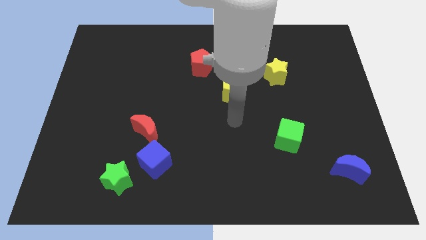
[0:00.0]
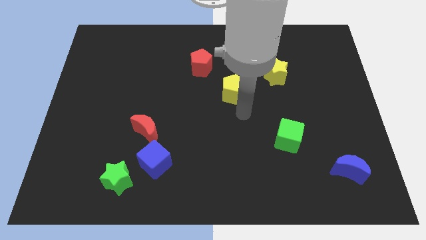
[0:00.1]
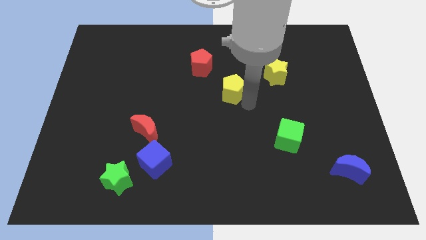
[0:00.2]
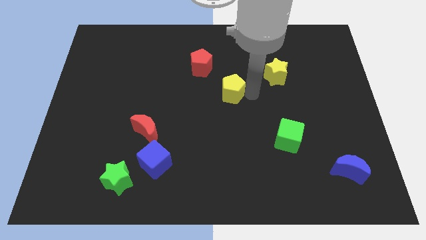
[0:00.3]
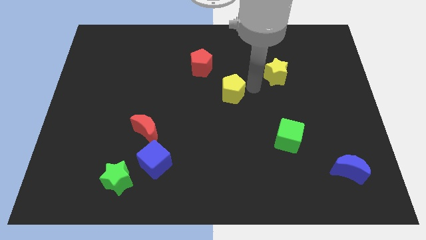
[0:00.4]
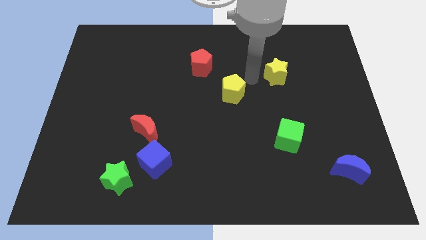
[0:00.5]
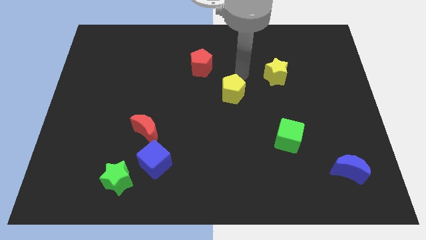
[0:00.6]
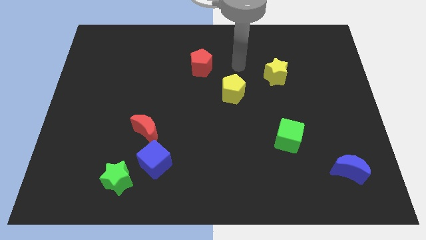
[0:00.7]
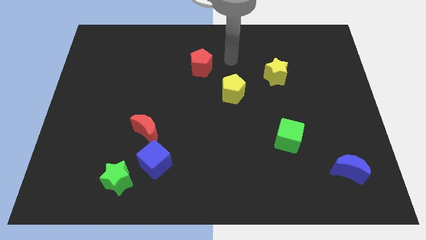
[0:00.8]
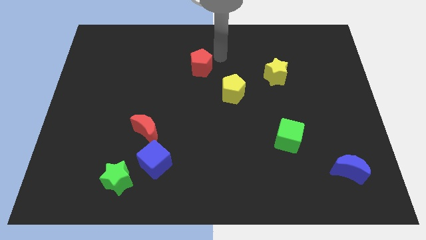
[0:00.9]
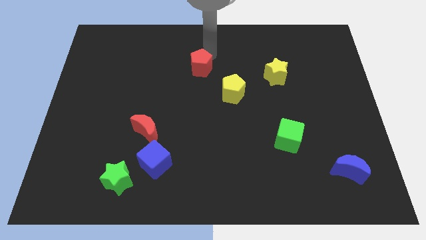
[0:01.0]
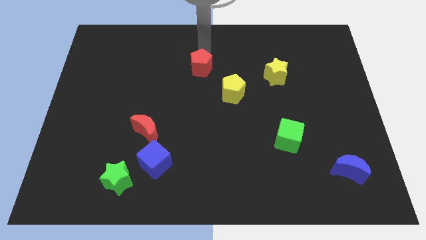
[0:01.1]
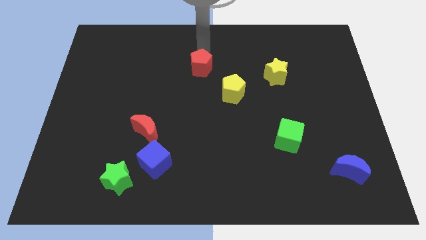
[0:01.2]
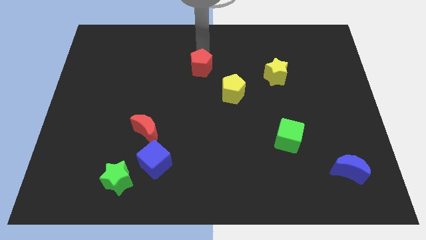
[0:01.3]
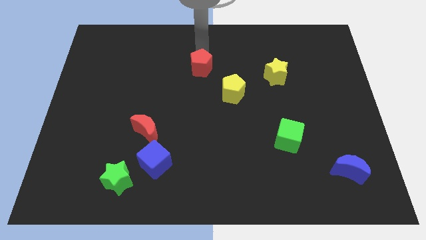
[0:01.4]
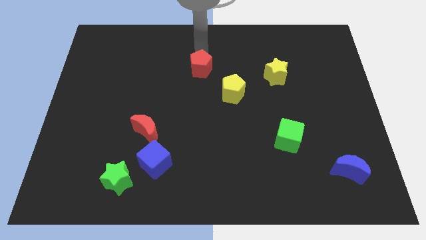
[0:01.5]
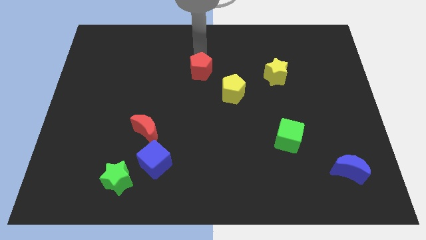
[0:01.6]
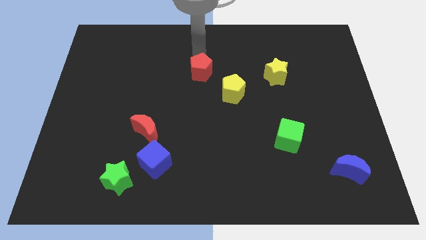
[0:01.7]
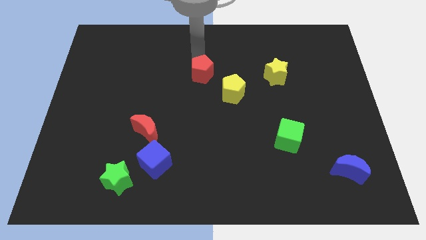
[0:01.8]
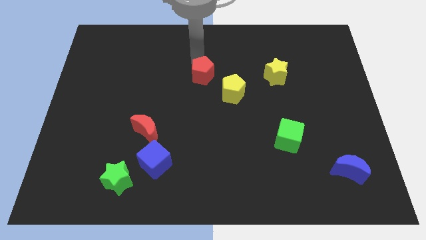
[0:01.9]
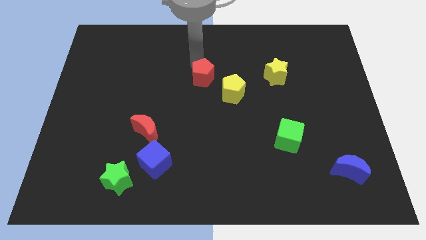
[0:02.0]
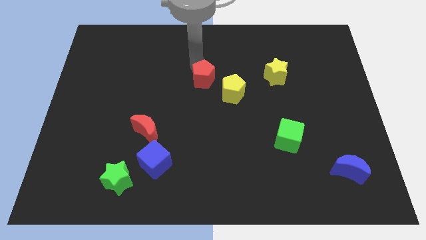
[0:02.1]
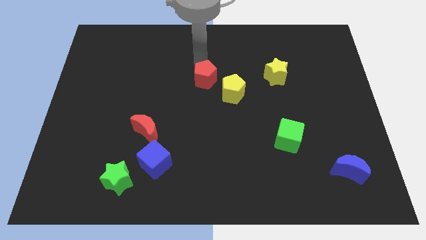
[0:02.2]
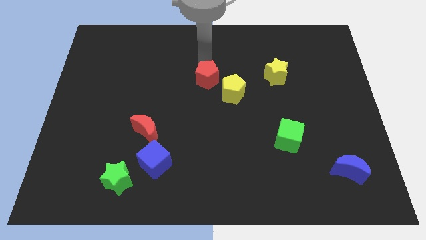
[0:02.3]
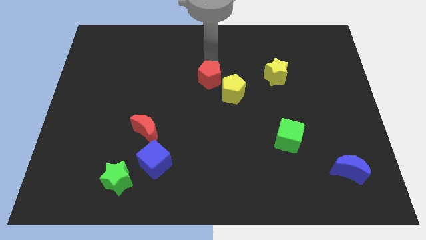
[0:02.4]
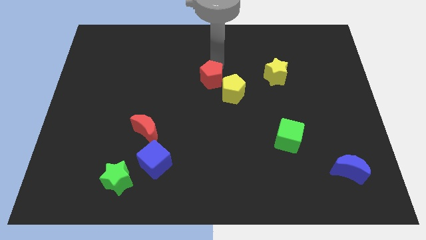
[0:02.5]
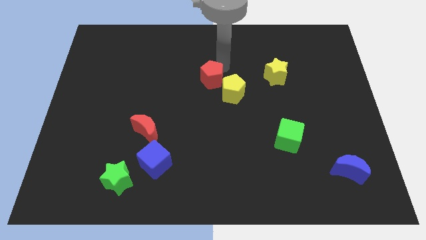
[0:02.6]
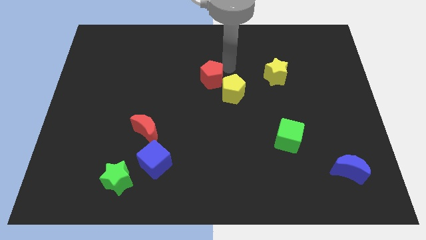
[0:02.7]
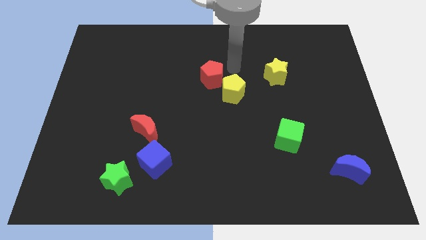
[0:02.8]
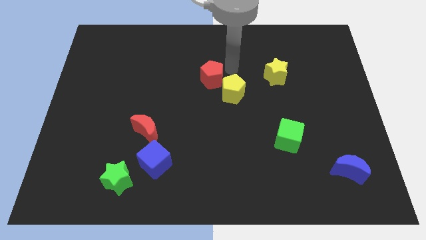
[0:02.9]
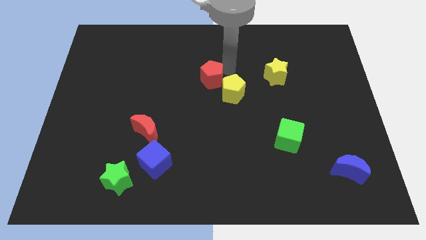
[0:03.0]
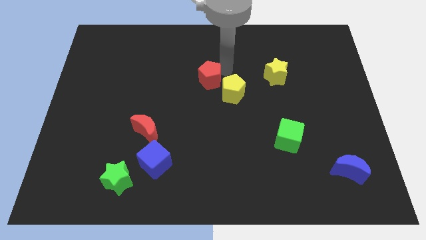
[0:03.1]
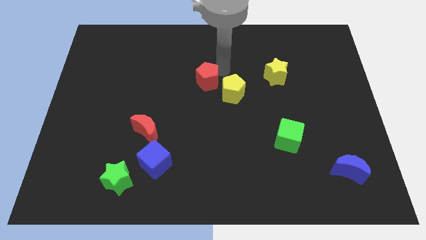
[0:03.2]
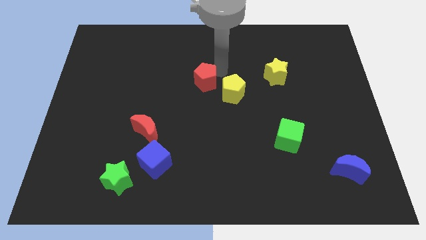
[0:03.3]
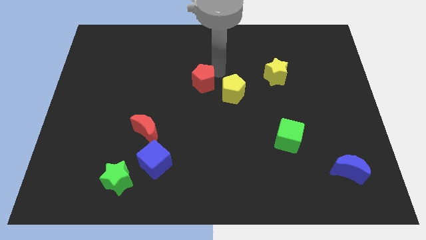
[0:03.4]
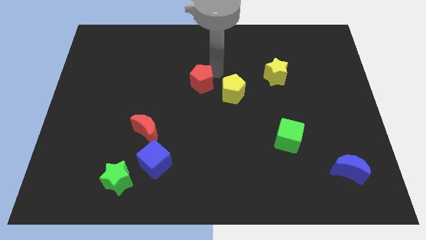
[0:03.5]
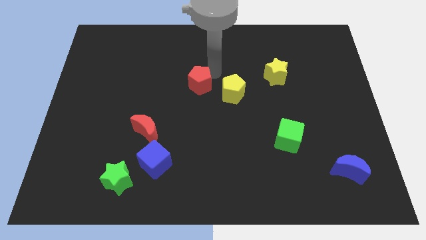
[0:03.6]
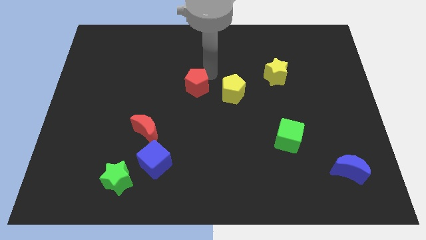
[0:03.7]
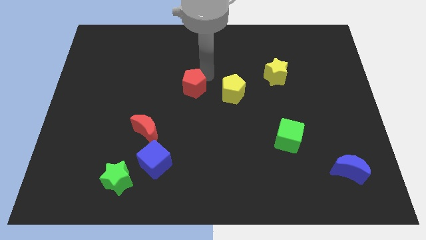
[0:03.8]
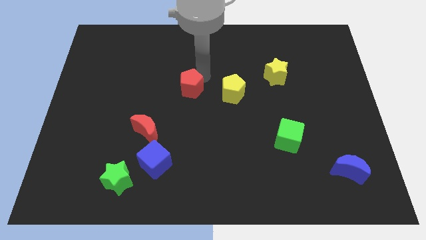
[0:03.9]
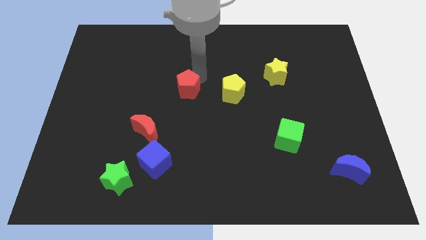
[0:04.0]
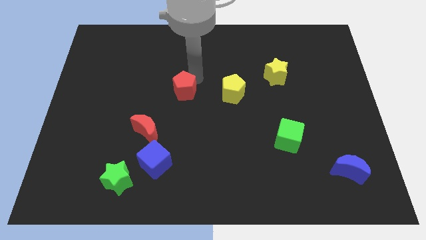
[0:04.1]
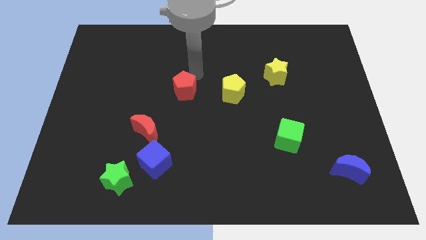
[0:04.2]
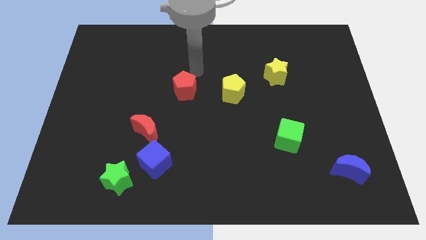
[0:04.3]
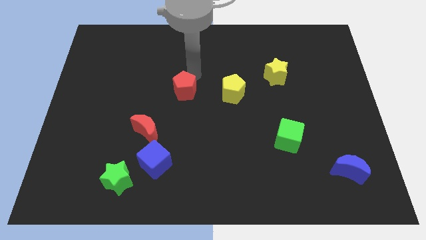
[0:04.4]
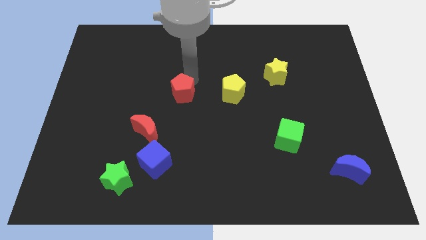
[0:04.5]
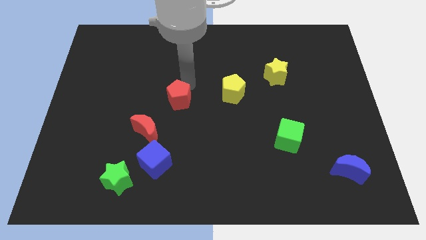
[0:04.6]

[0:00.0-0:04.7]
slide the red pentagon to the top right of the red moon

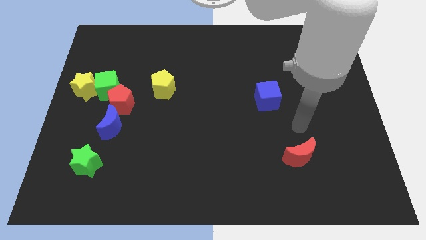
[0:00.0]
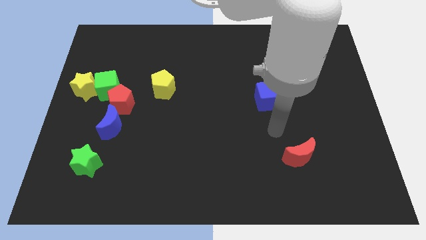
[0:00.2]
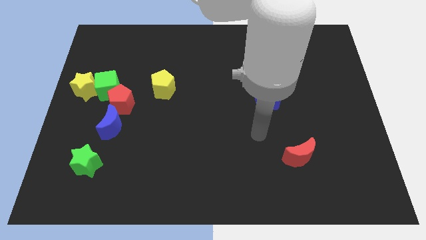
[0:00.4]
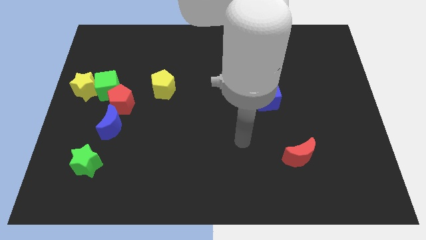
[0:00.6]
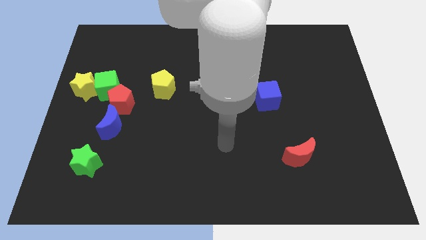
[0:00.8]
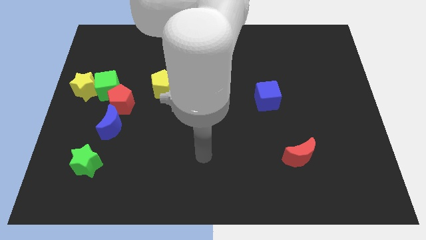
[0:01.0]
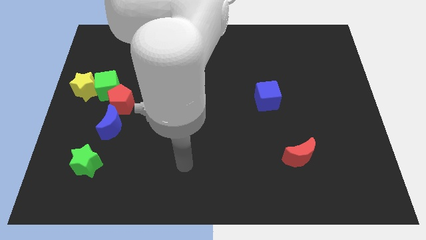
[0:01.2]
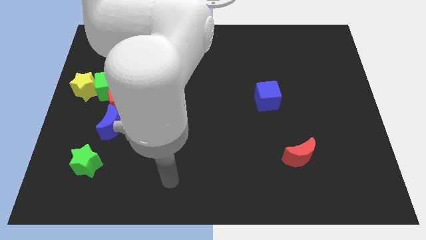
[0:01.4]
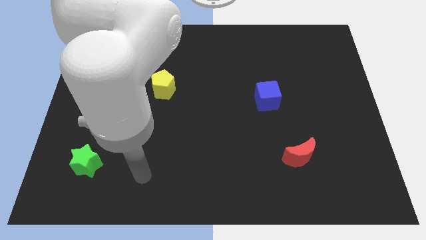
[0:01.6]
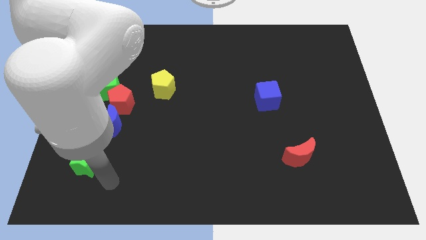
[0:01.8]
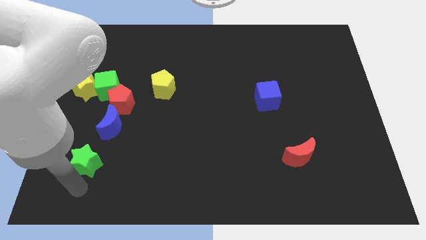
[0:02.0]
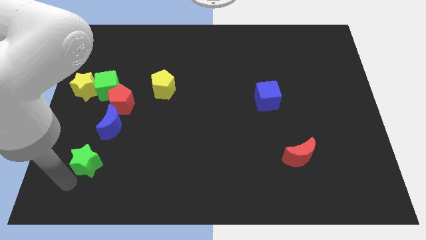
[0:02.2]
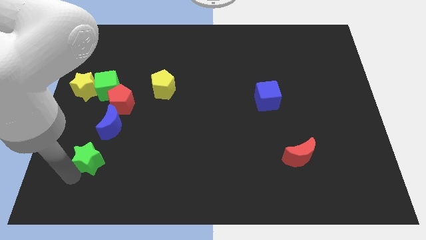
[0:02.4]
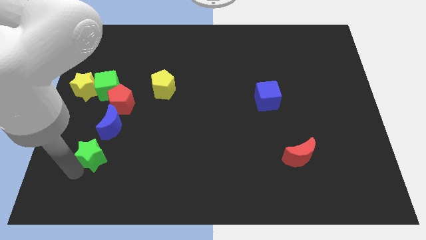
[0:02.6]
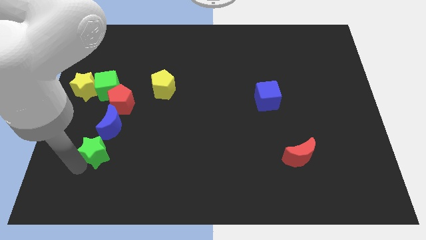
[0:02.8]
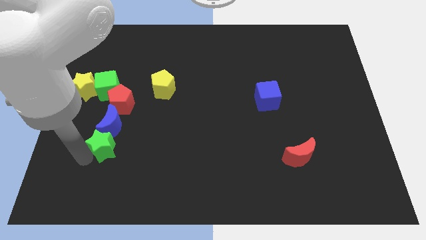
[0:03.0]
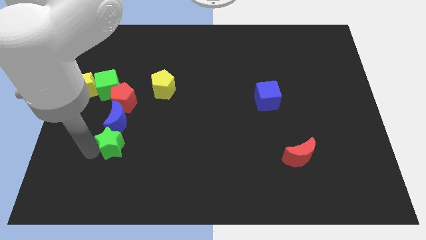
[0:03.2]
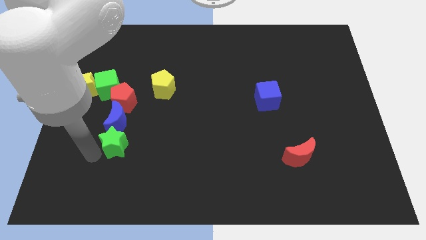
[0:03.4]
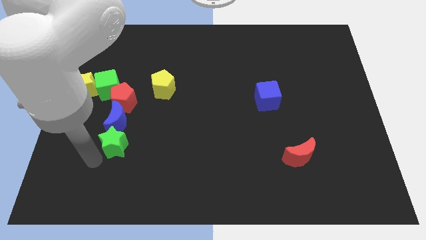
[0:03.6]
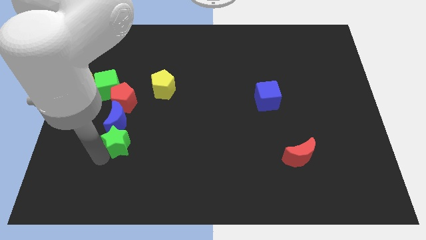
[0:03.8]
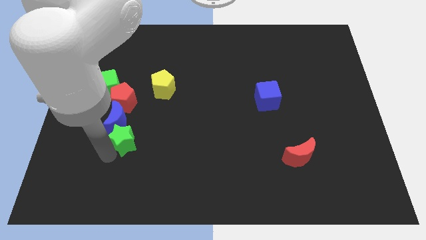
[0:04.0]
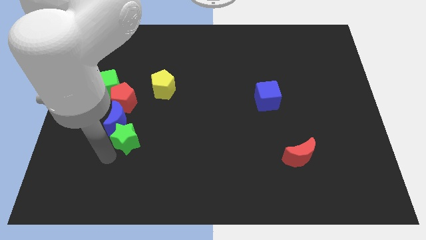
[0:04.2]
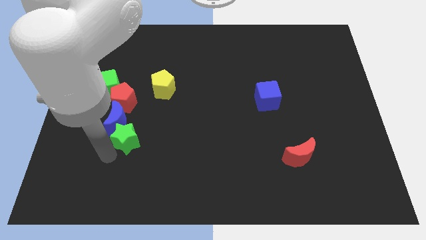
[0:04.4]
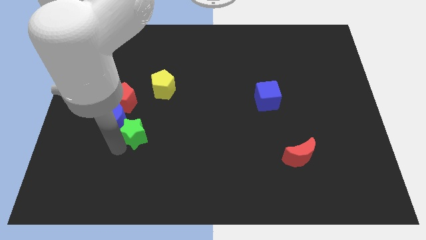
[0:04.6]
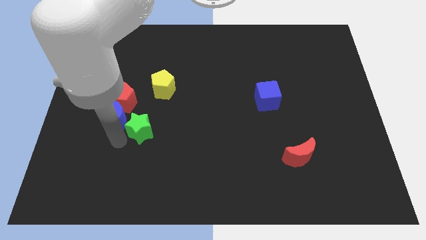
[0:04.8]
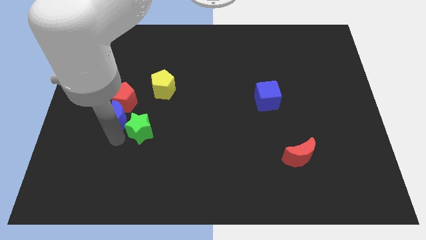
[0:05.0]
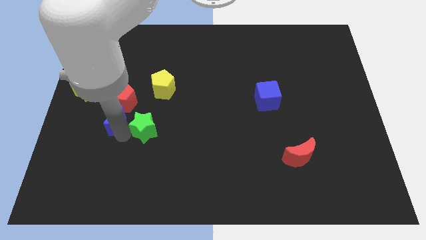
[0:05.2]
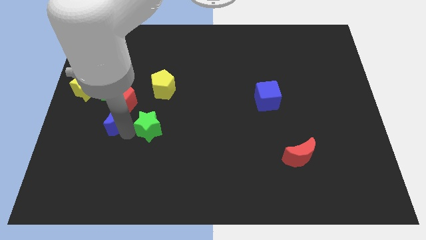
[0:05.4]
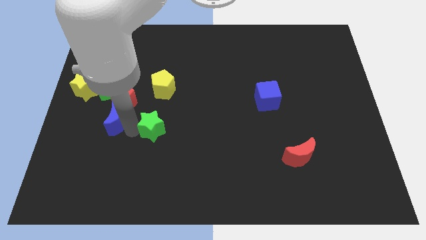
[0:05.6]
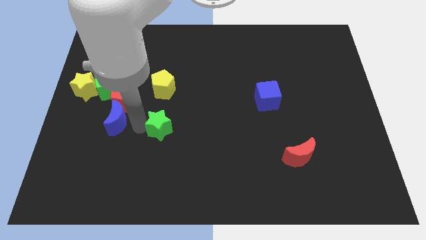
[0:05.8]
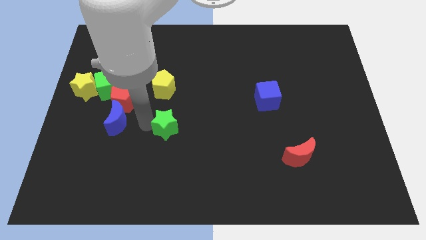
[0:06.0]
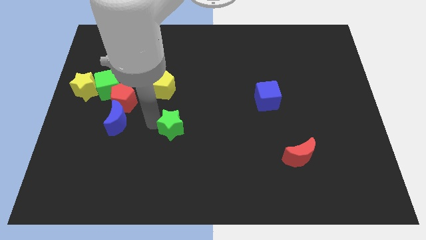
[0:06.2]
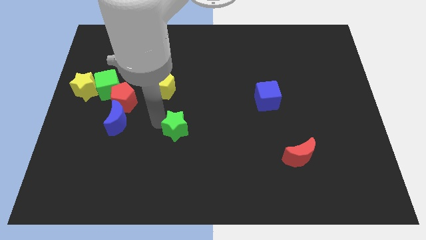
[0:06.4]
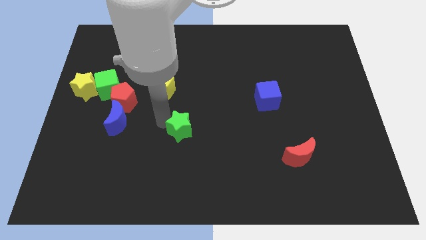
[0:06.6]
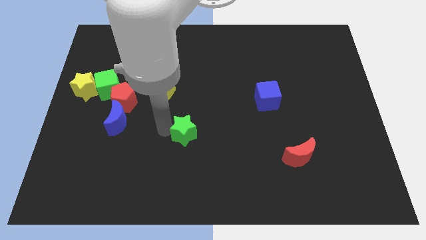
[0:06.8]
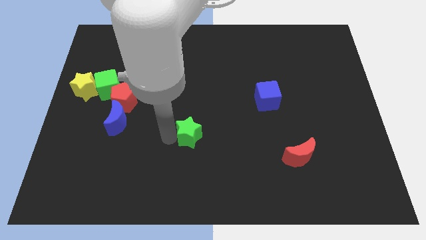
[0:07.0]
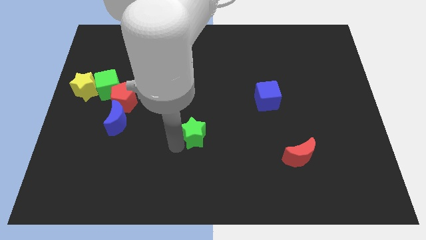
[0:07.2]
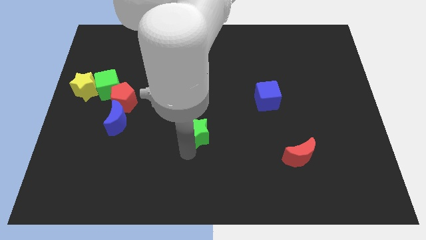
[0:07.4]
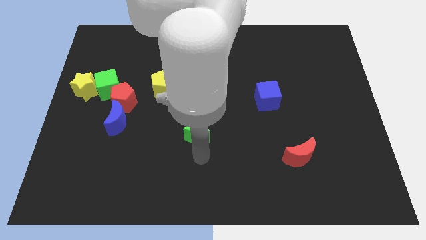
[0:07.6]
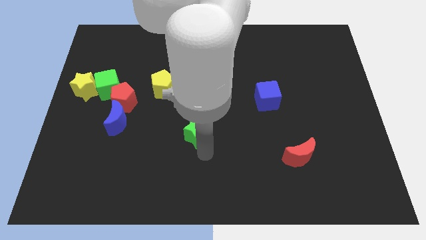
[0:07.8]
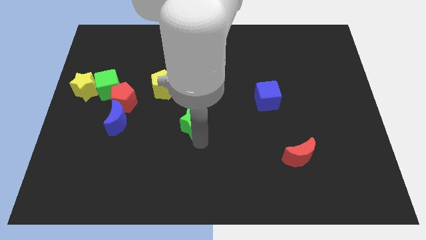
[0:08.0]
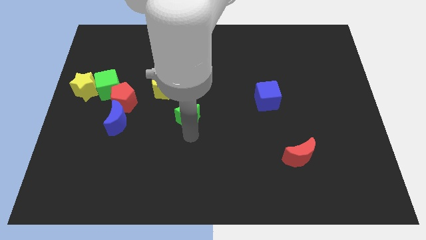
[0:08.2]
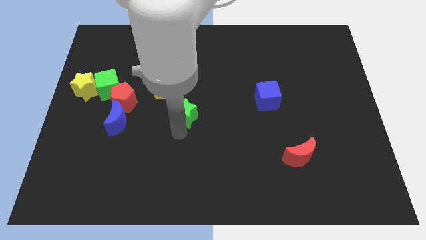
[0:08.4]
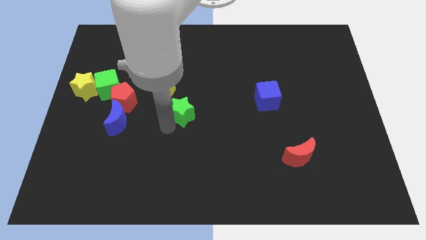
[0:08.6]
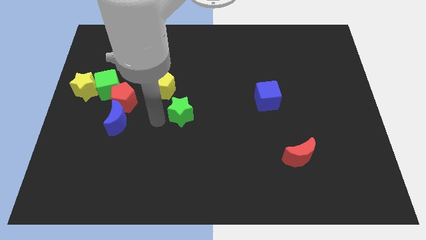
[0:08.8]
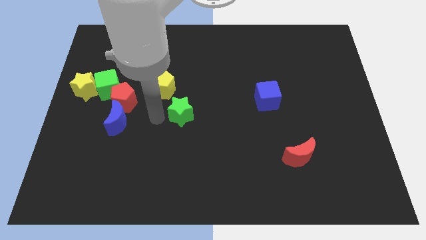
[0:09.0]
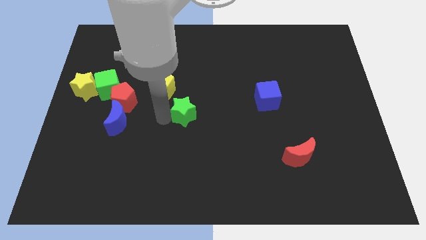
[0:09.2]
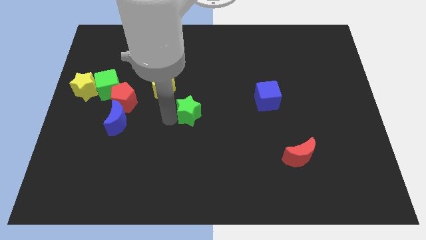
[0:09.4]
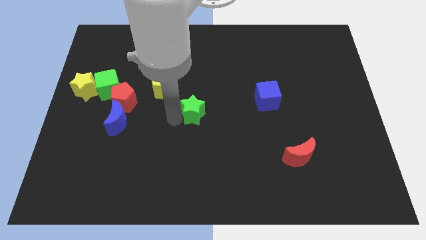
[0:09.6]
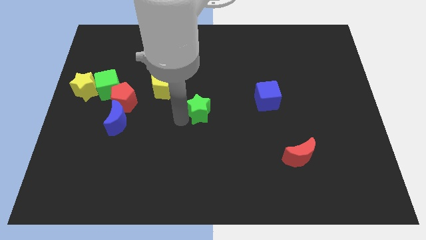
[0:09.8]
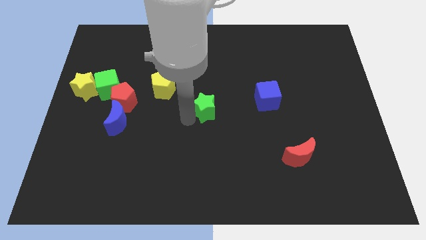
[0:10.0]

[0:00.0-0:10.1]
move the green star to the left of the blue cube
